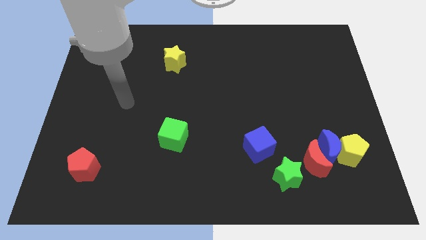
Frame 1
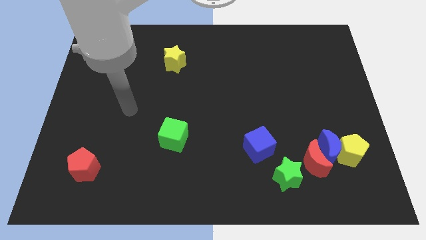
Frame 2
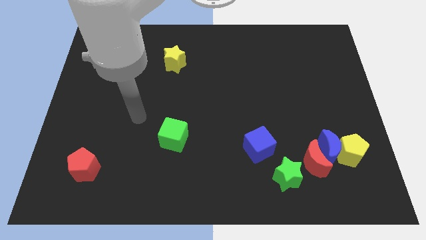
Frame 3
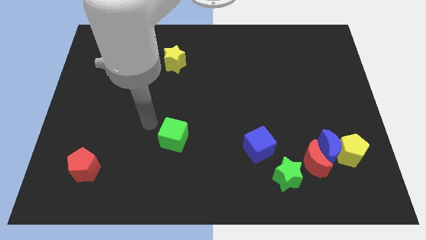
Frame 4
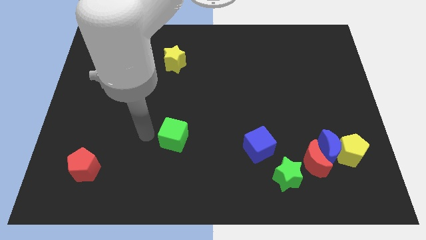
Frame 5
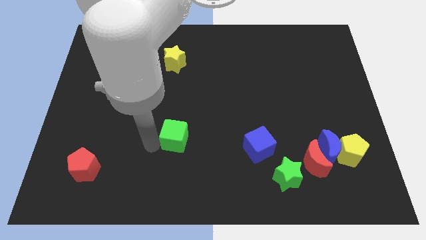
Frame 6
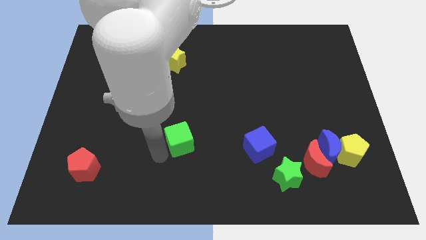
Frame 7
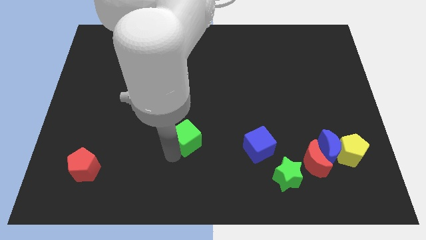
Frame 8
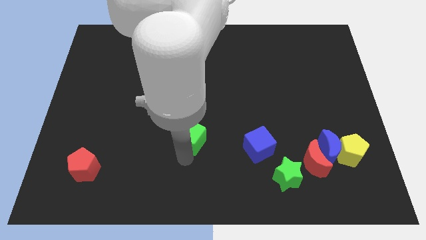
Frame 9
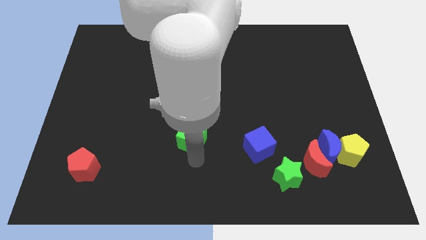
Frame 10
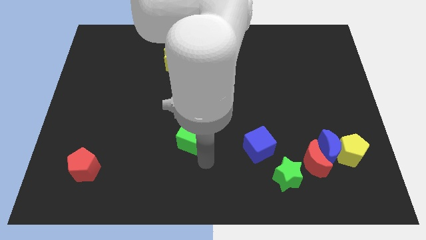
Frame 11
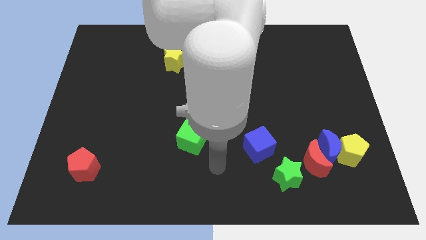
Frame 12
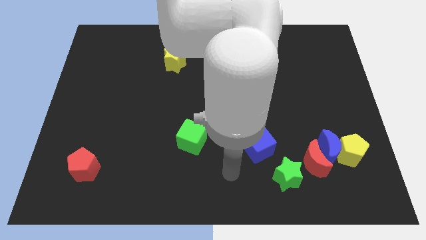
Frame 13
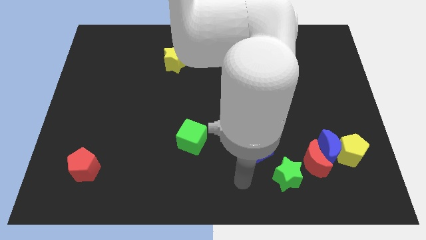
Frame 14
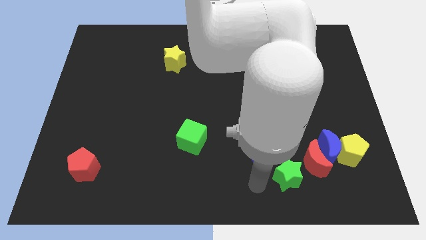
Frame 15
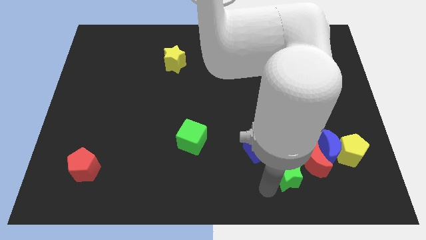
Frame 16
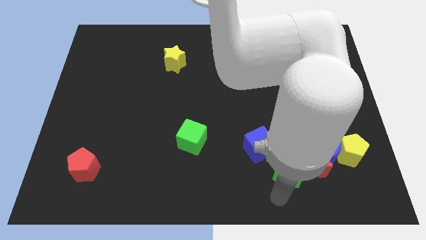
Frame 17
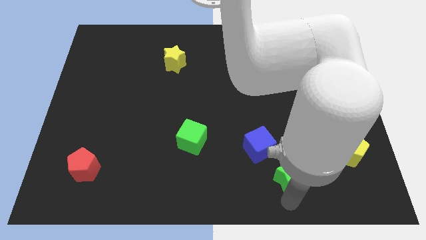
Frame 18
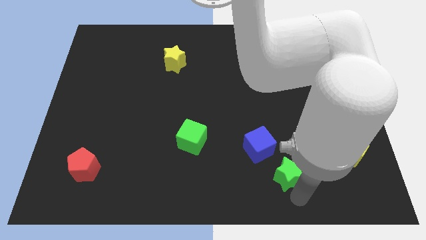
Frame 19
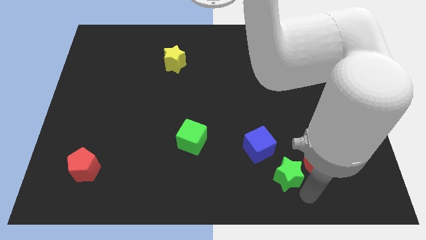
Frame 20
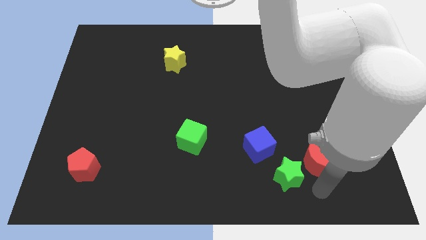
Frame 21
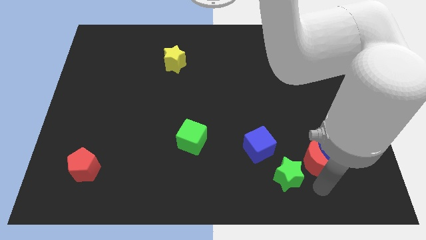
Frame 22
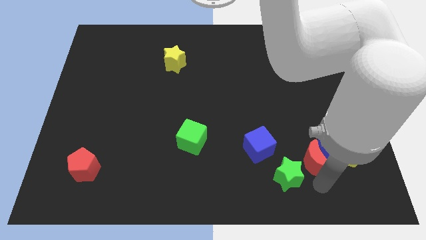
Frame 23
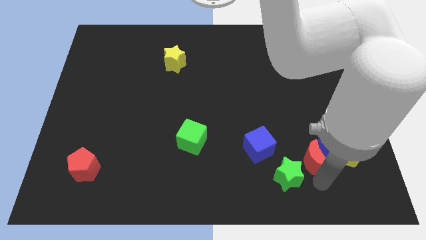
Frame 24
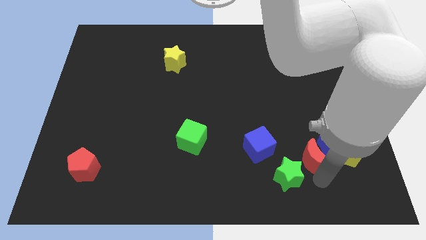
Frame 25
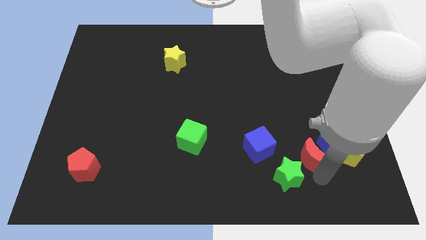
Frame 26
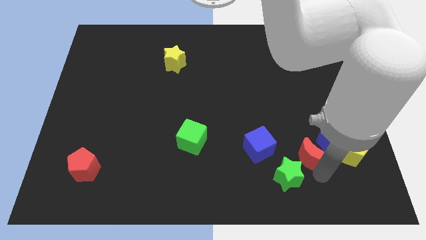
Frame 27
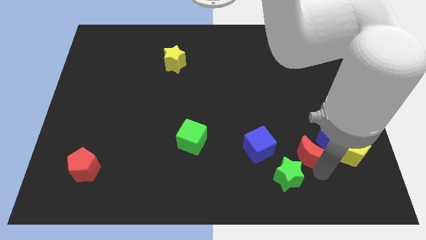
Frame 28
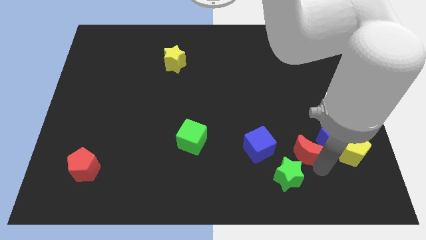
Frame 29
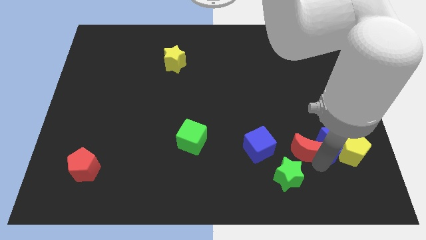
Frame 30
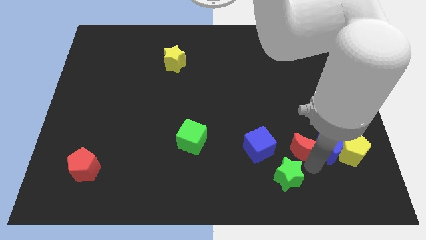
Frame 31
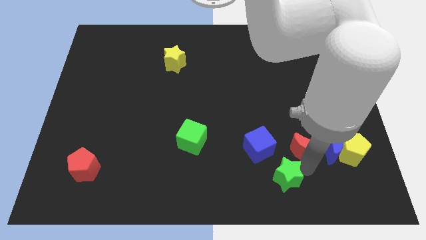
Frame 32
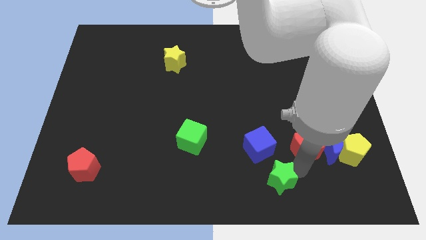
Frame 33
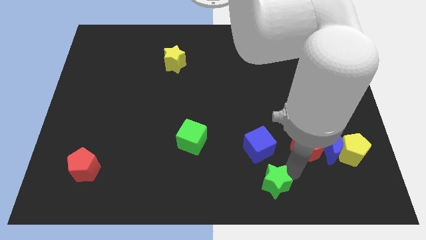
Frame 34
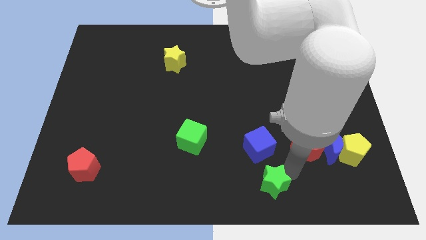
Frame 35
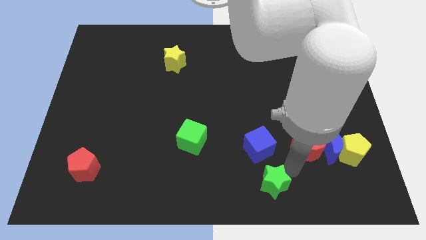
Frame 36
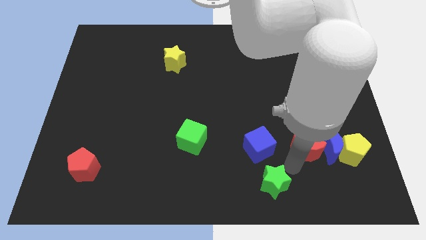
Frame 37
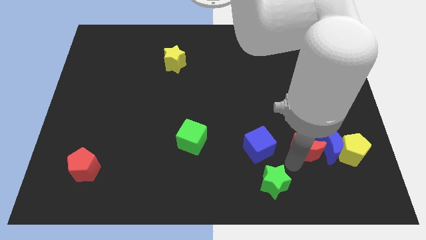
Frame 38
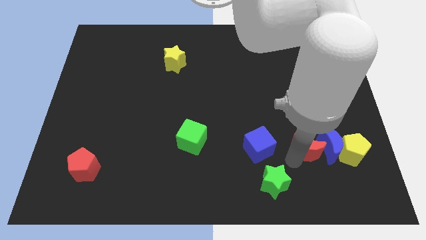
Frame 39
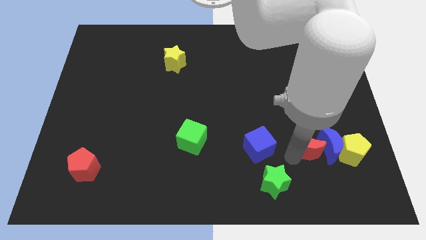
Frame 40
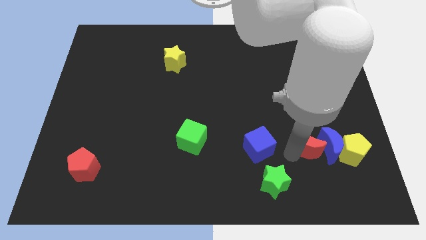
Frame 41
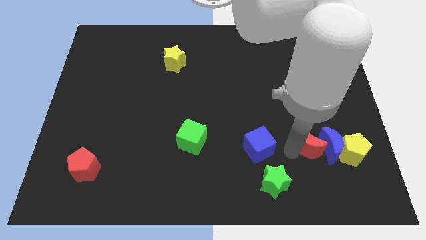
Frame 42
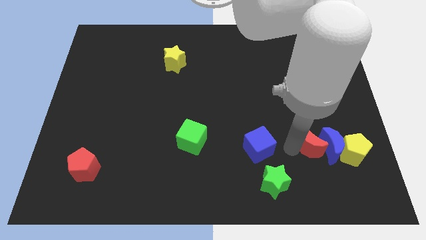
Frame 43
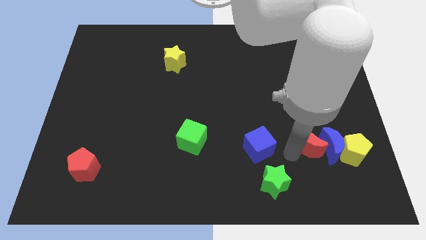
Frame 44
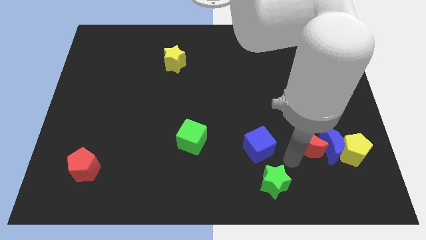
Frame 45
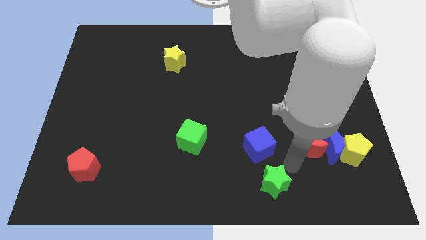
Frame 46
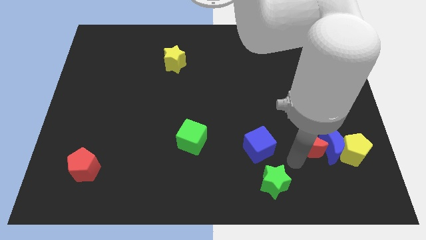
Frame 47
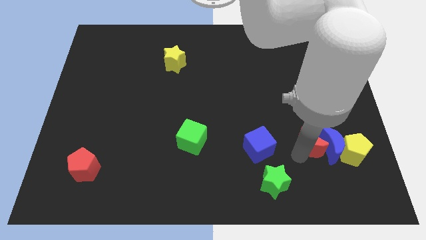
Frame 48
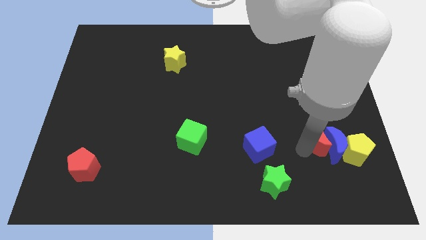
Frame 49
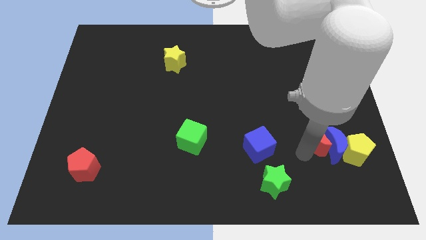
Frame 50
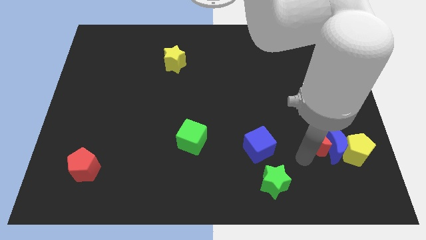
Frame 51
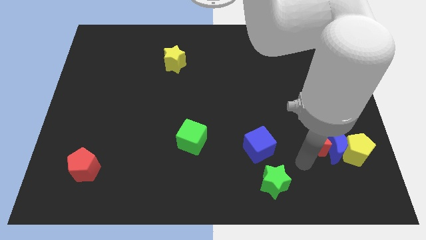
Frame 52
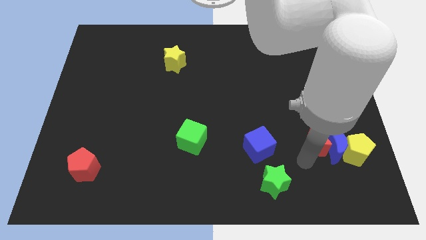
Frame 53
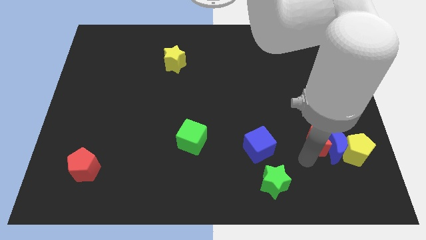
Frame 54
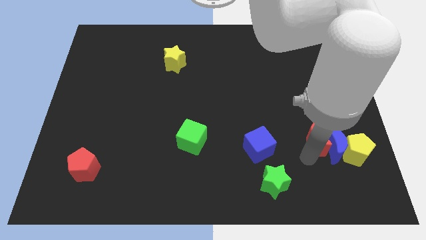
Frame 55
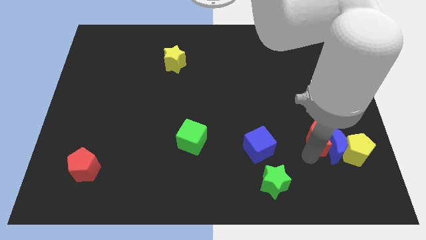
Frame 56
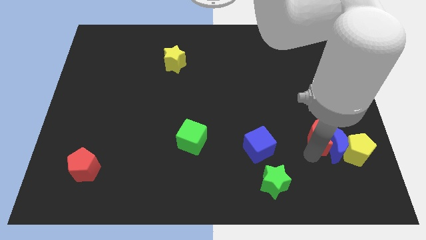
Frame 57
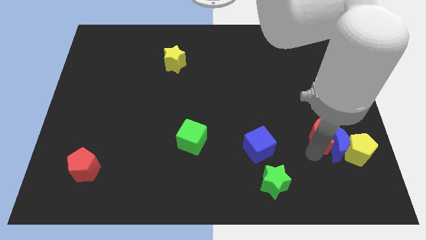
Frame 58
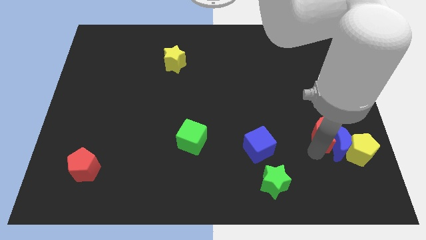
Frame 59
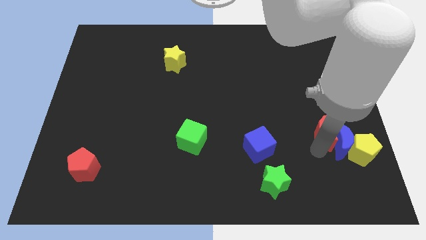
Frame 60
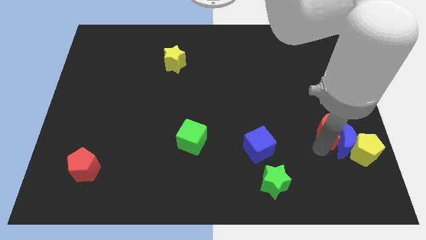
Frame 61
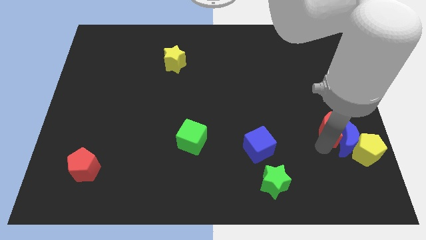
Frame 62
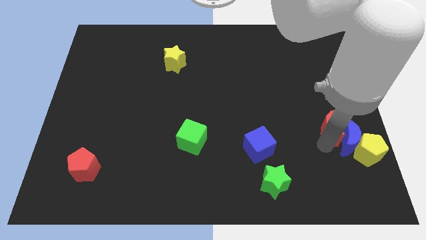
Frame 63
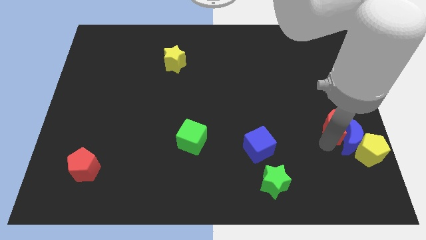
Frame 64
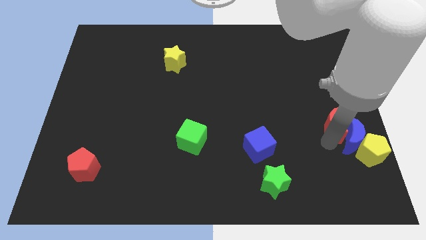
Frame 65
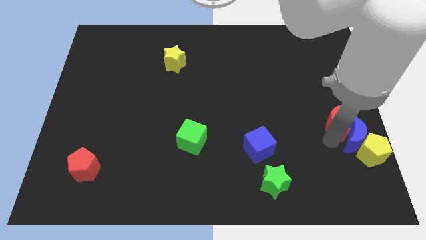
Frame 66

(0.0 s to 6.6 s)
push the red moon to the center right
